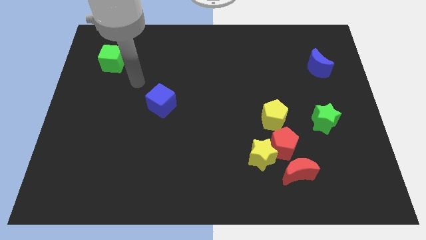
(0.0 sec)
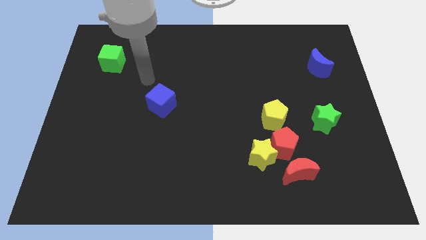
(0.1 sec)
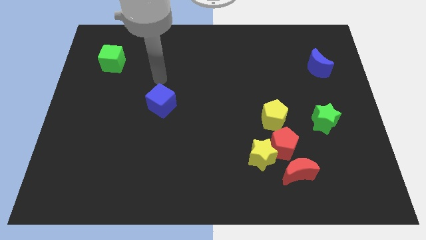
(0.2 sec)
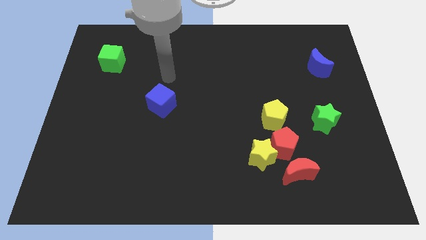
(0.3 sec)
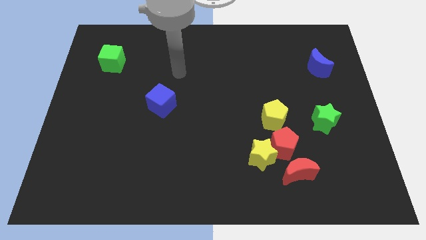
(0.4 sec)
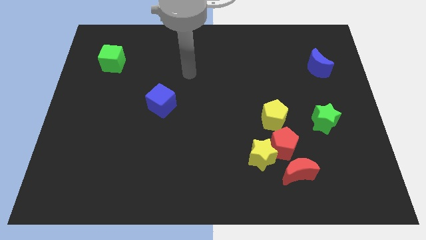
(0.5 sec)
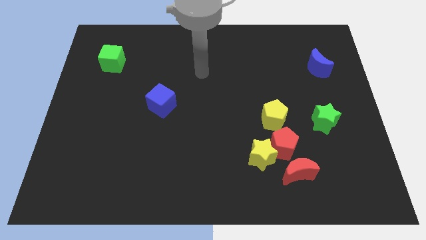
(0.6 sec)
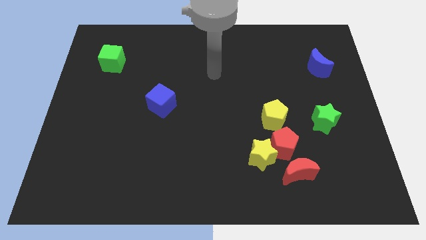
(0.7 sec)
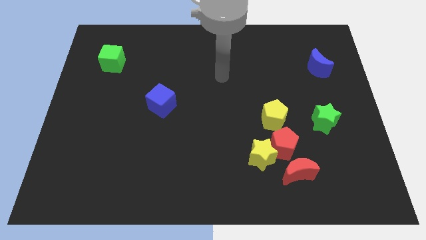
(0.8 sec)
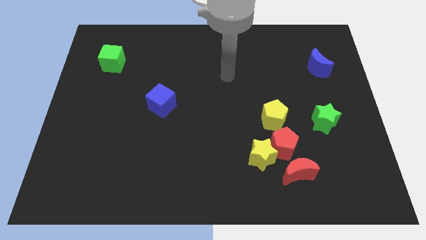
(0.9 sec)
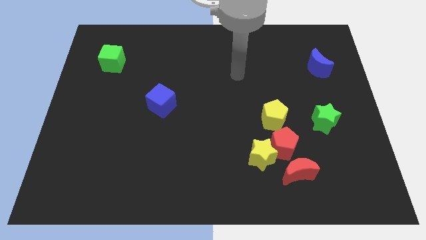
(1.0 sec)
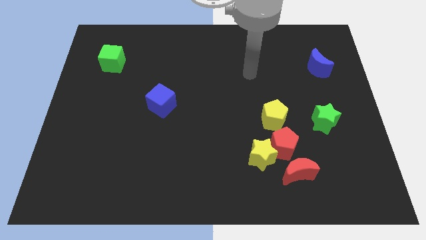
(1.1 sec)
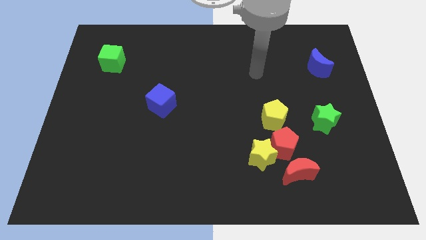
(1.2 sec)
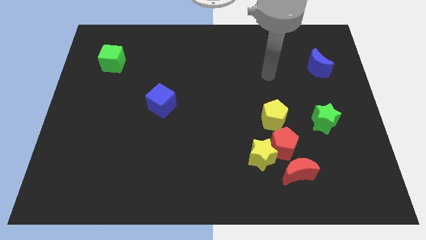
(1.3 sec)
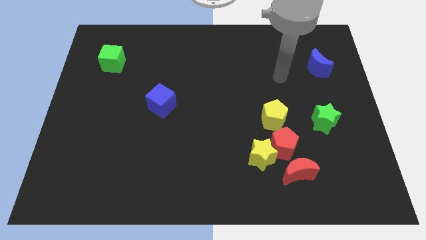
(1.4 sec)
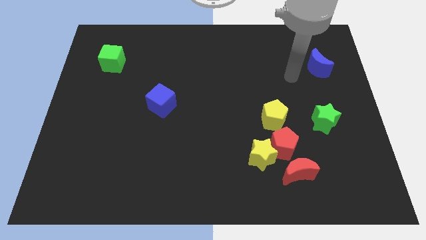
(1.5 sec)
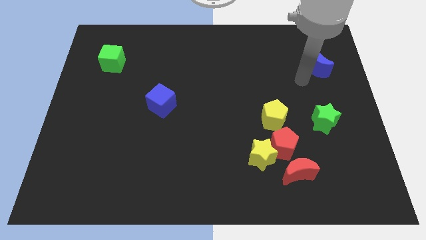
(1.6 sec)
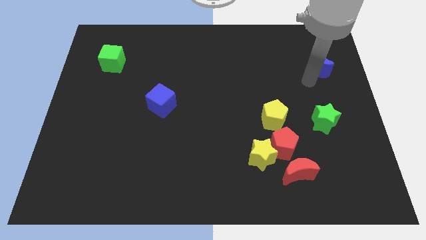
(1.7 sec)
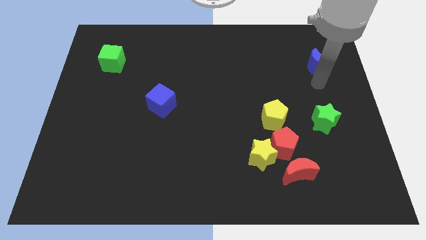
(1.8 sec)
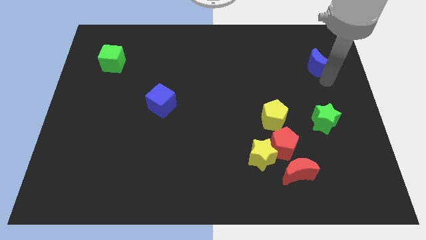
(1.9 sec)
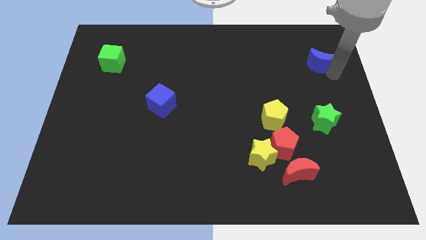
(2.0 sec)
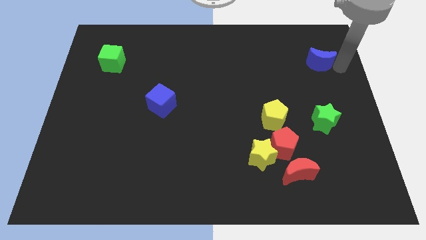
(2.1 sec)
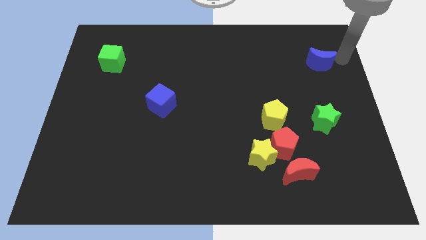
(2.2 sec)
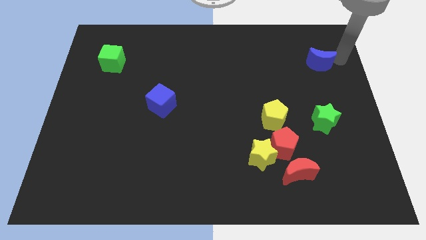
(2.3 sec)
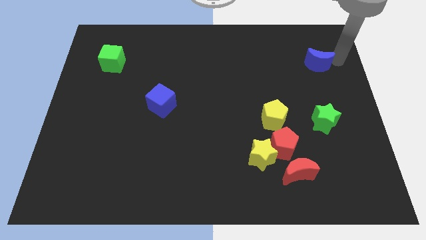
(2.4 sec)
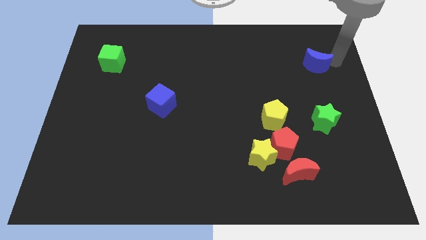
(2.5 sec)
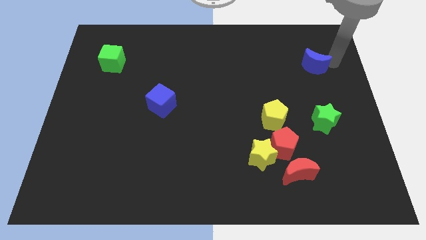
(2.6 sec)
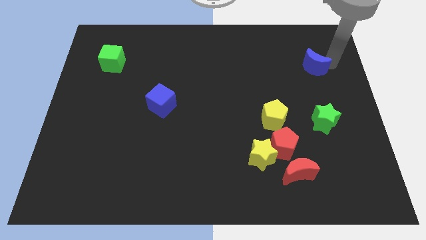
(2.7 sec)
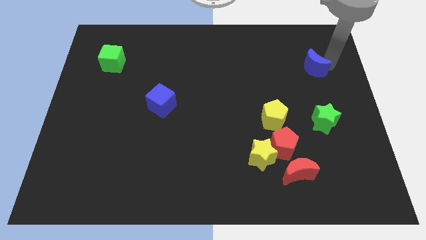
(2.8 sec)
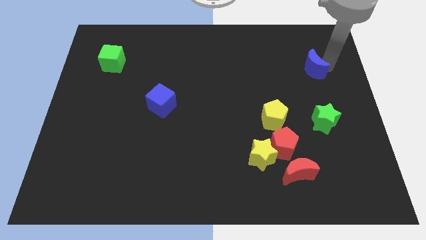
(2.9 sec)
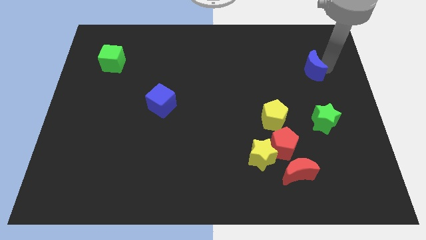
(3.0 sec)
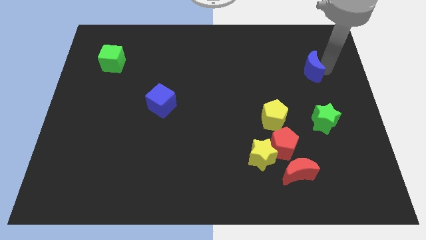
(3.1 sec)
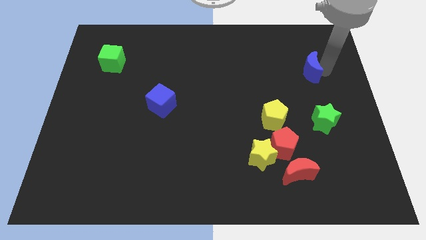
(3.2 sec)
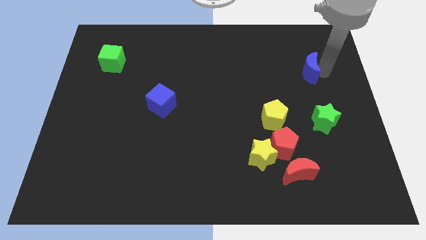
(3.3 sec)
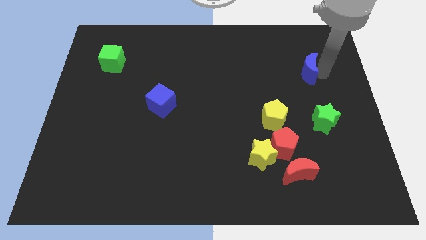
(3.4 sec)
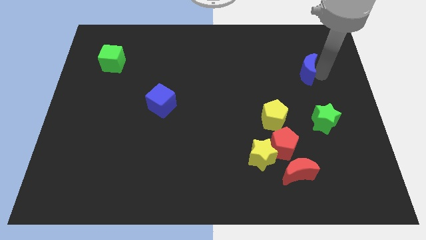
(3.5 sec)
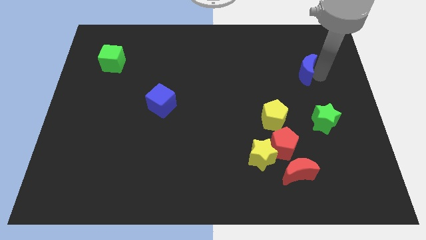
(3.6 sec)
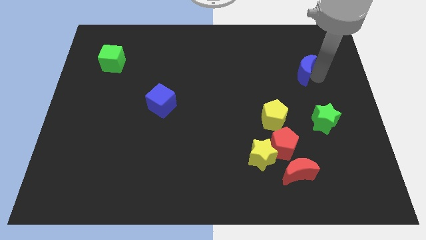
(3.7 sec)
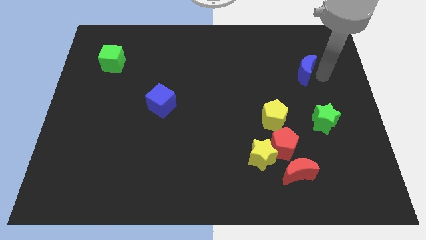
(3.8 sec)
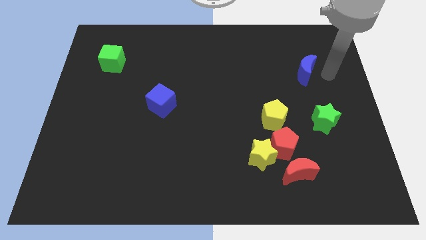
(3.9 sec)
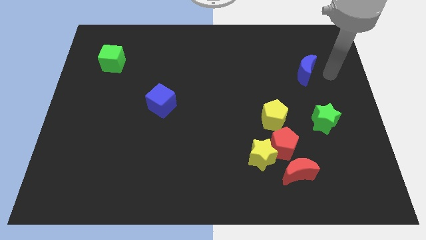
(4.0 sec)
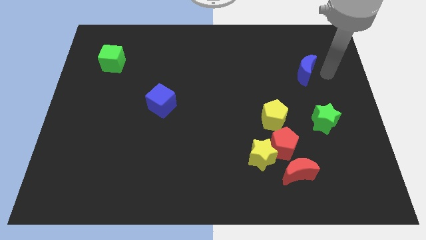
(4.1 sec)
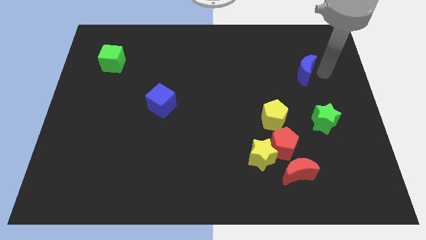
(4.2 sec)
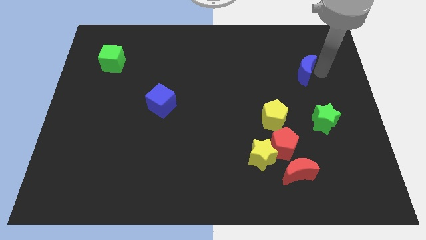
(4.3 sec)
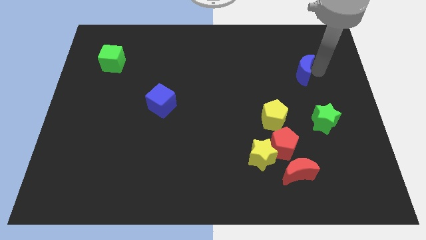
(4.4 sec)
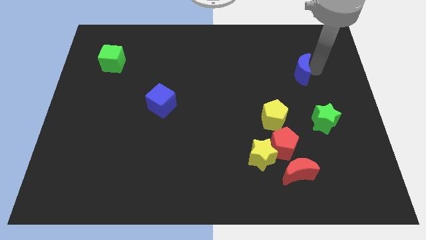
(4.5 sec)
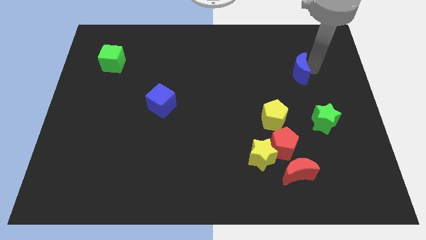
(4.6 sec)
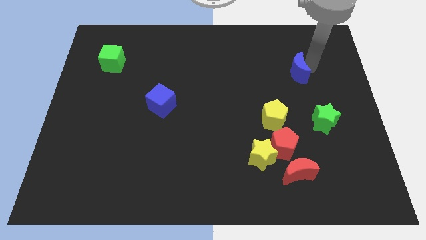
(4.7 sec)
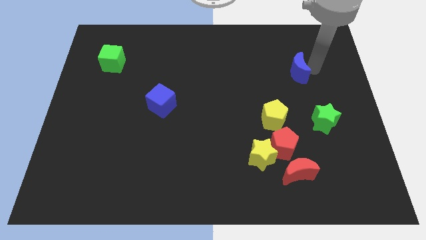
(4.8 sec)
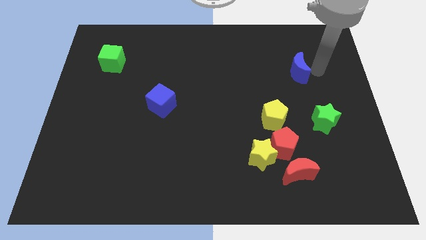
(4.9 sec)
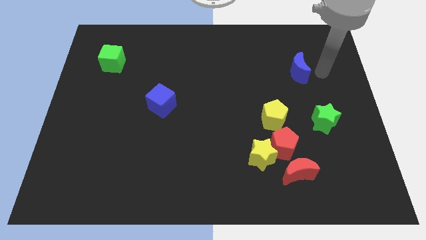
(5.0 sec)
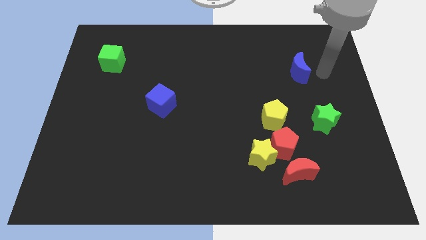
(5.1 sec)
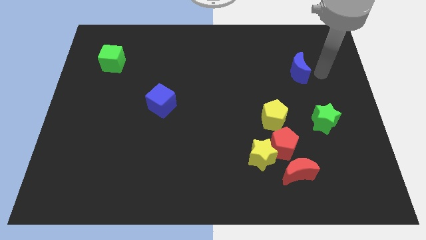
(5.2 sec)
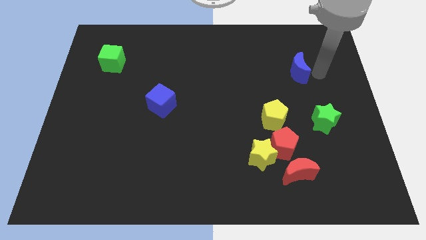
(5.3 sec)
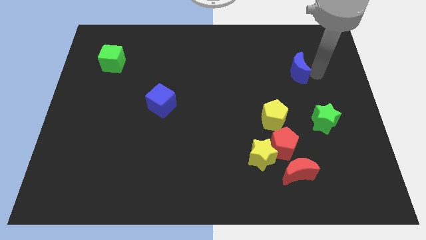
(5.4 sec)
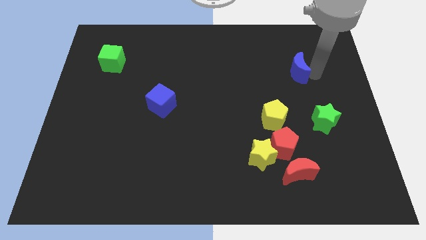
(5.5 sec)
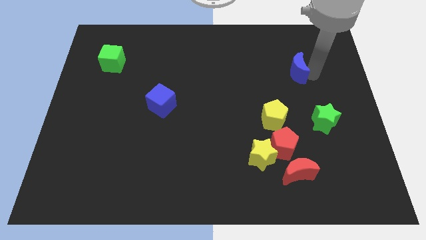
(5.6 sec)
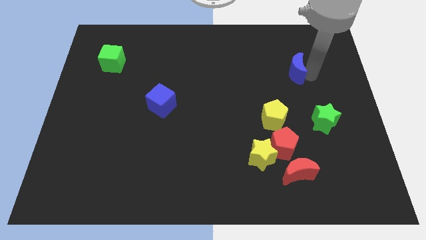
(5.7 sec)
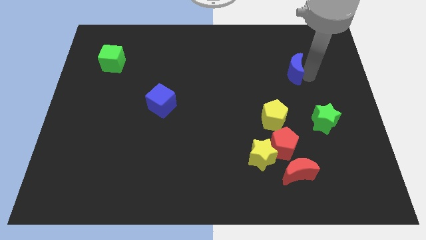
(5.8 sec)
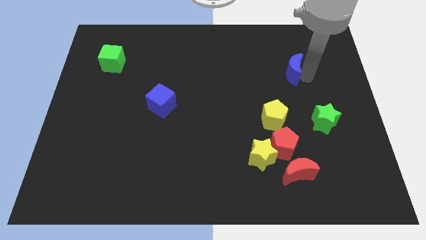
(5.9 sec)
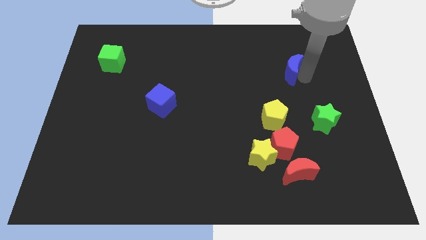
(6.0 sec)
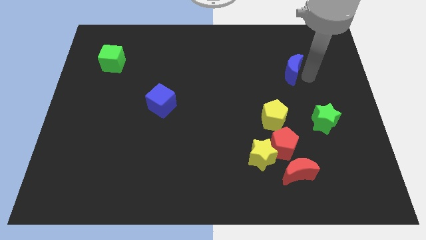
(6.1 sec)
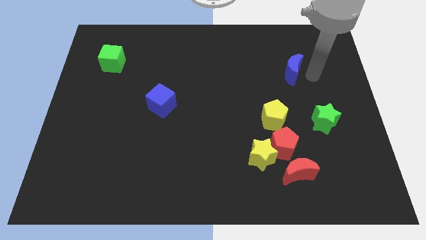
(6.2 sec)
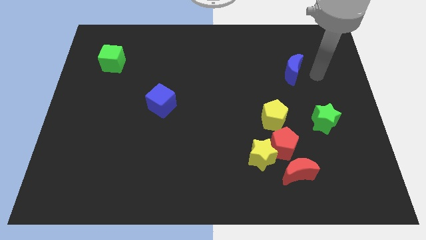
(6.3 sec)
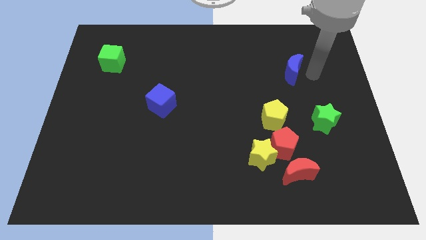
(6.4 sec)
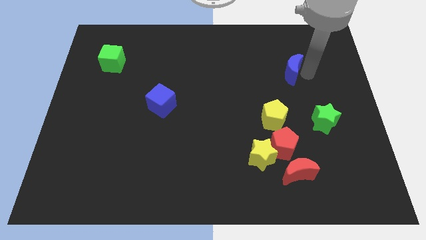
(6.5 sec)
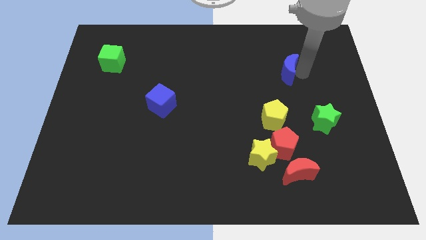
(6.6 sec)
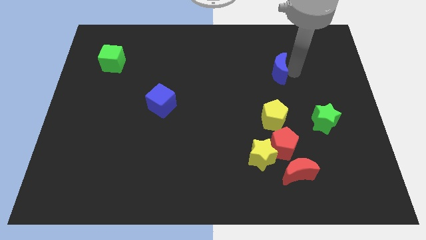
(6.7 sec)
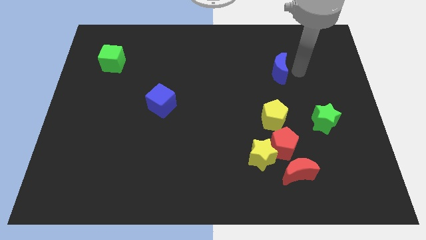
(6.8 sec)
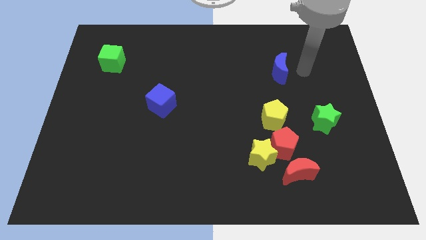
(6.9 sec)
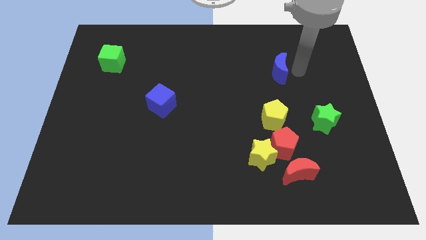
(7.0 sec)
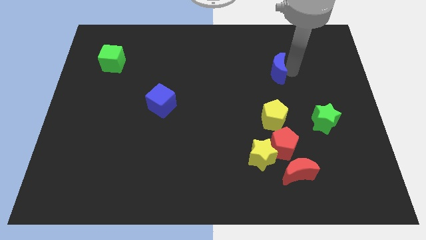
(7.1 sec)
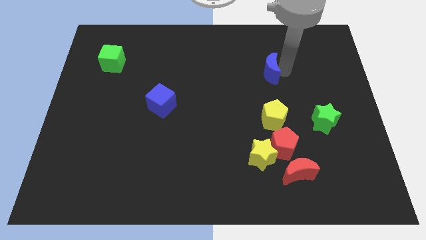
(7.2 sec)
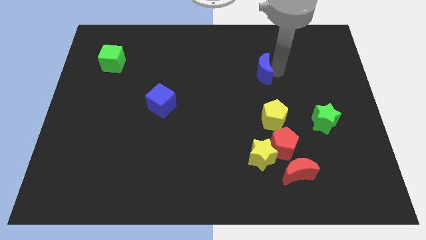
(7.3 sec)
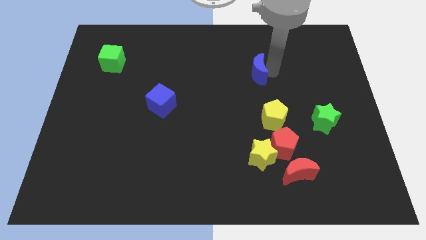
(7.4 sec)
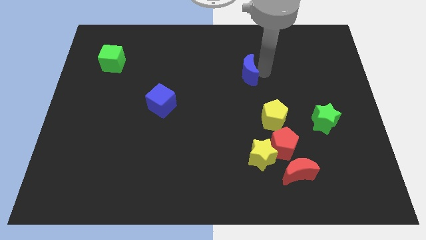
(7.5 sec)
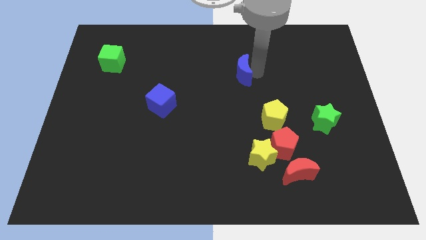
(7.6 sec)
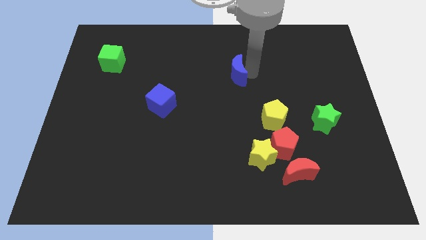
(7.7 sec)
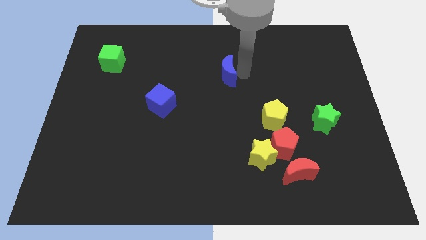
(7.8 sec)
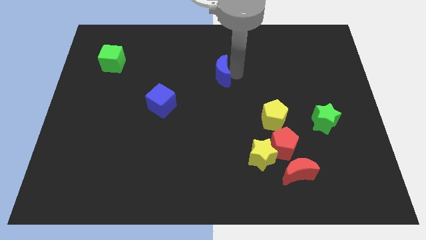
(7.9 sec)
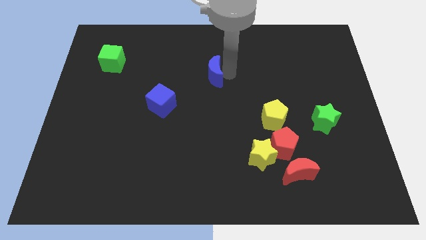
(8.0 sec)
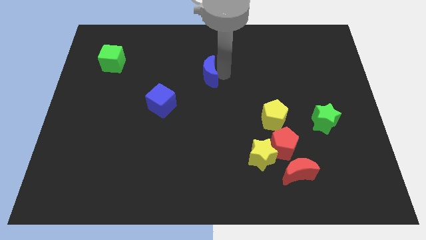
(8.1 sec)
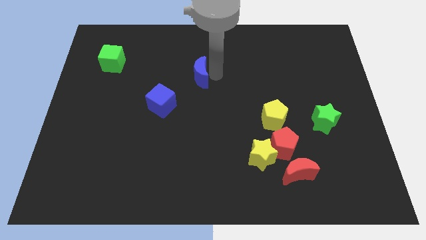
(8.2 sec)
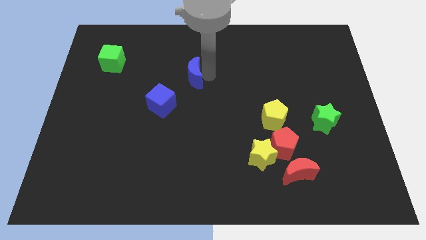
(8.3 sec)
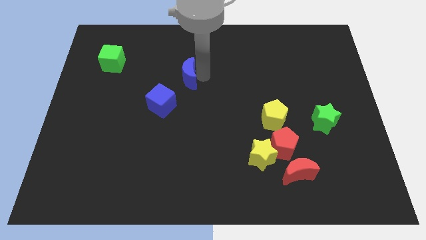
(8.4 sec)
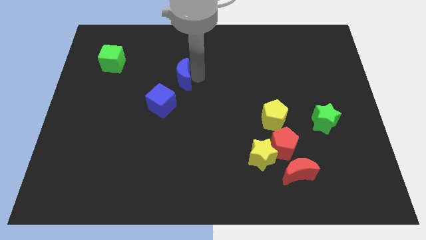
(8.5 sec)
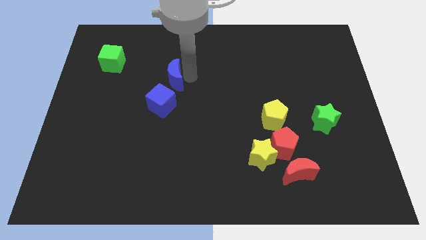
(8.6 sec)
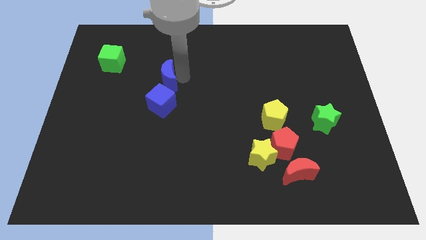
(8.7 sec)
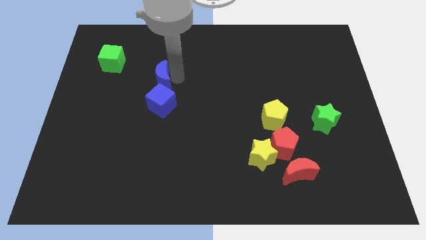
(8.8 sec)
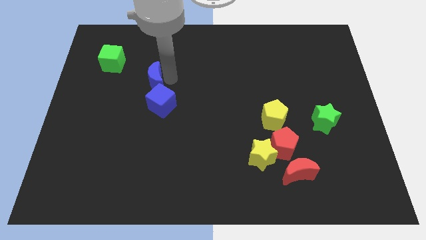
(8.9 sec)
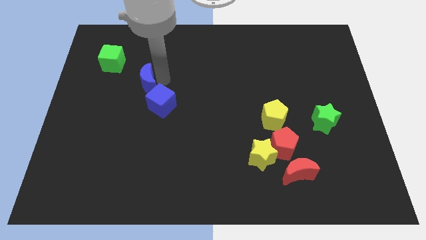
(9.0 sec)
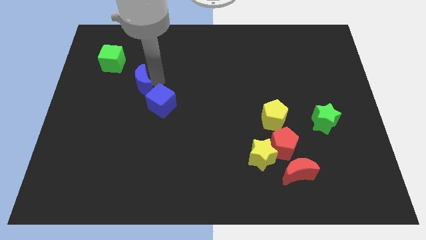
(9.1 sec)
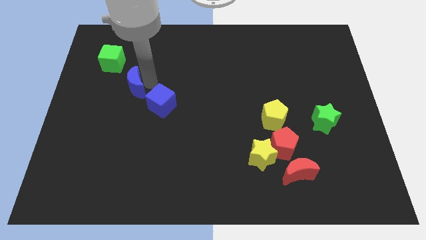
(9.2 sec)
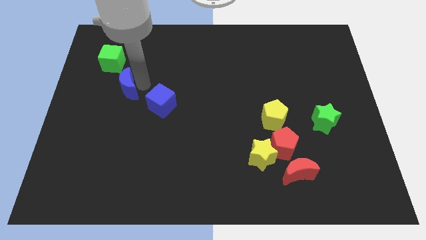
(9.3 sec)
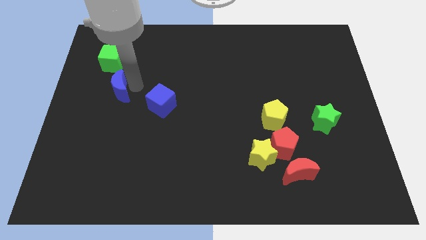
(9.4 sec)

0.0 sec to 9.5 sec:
slide the blue moon to the bottom side of the green cube
